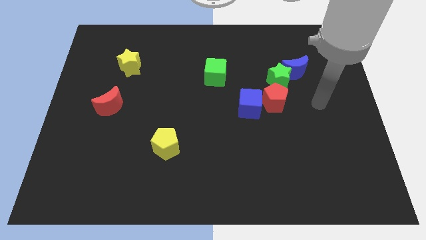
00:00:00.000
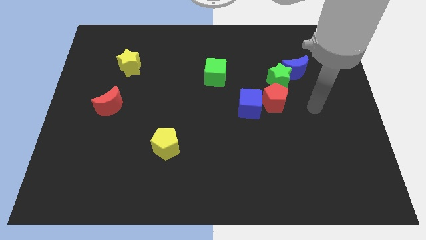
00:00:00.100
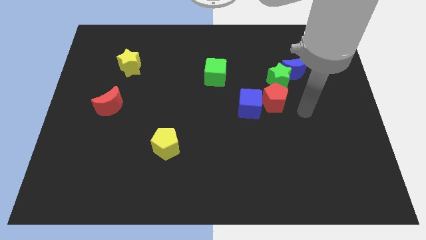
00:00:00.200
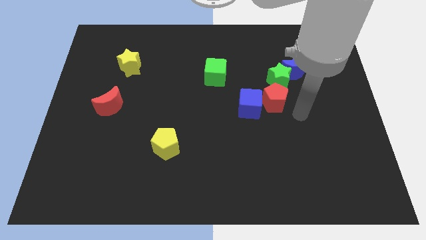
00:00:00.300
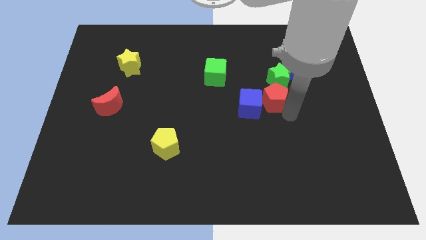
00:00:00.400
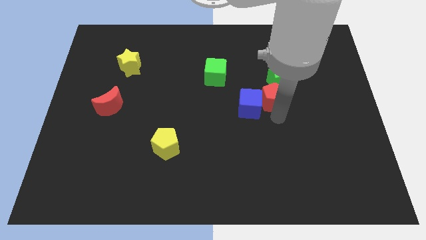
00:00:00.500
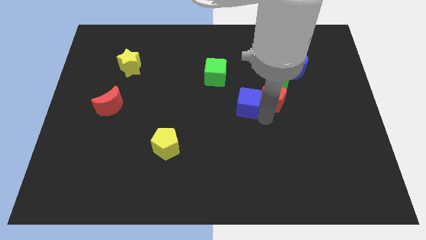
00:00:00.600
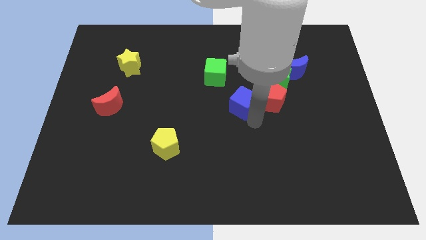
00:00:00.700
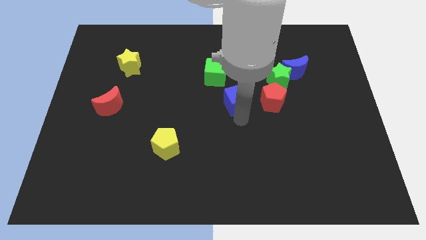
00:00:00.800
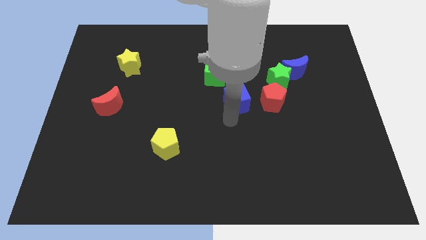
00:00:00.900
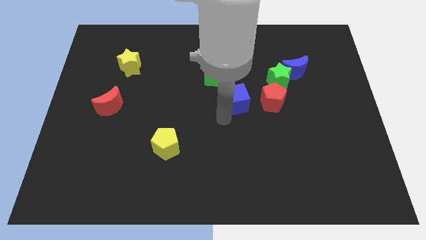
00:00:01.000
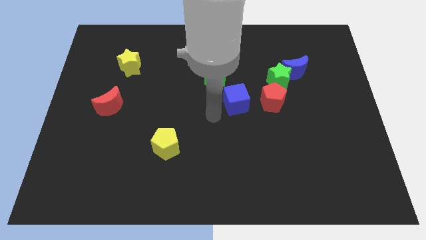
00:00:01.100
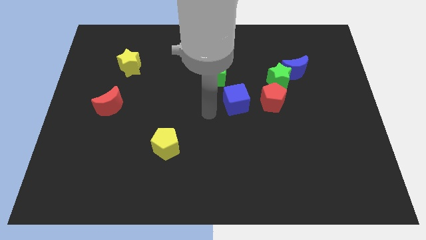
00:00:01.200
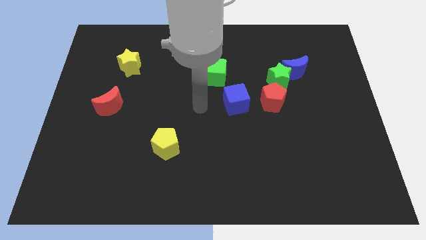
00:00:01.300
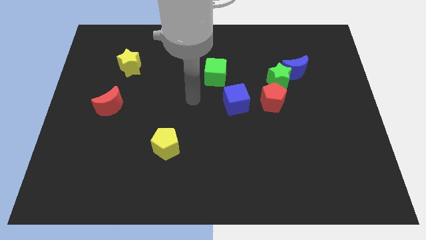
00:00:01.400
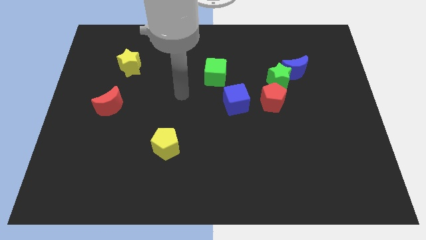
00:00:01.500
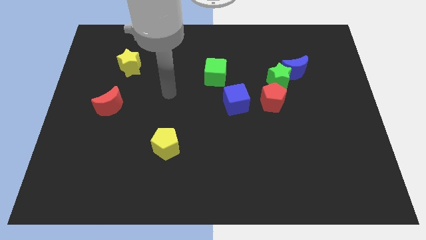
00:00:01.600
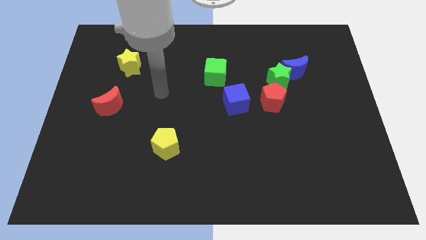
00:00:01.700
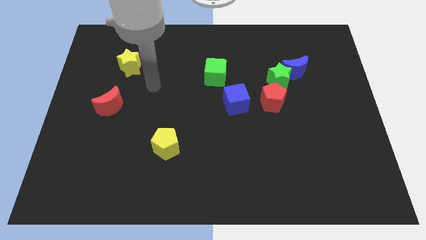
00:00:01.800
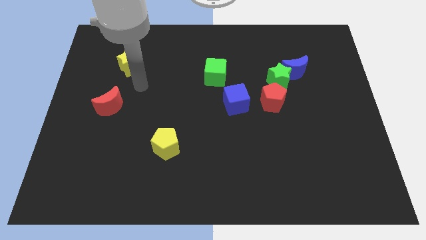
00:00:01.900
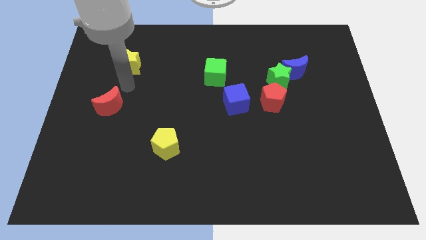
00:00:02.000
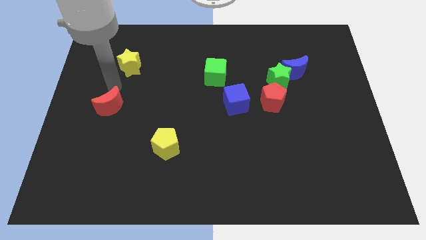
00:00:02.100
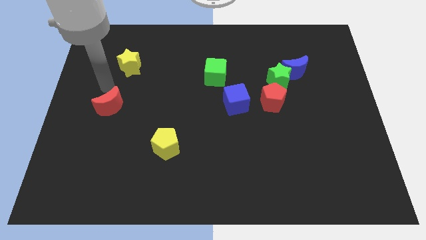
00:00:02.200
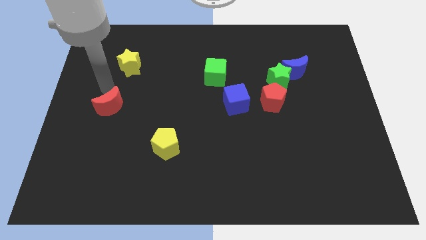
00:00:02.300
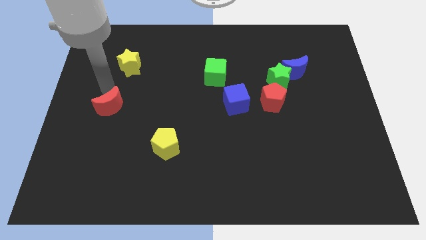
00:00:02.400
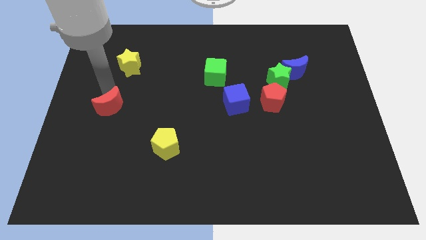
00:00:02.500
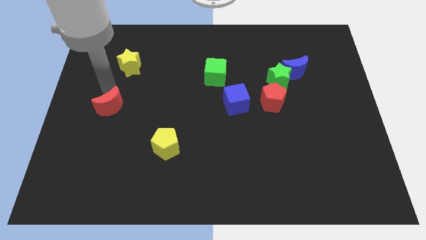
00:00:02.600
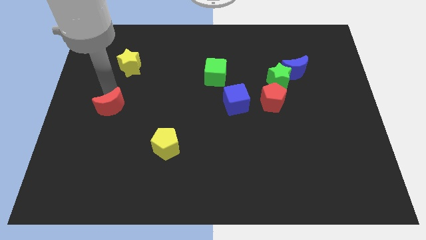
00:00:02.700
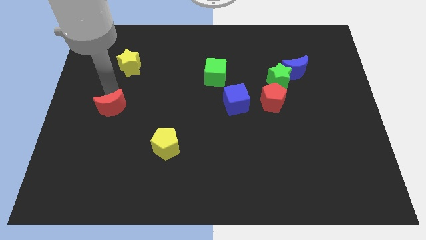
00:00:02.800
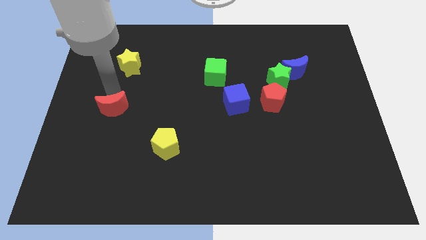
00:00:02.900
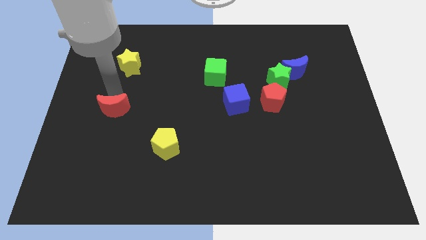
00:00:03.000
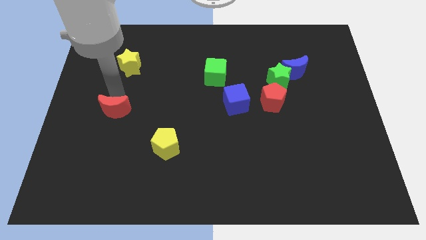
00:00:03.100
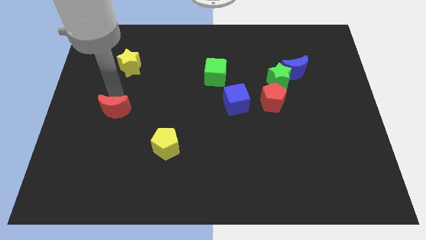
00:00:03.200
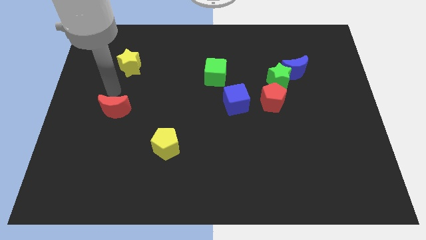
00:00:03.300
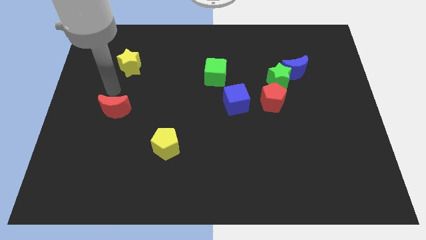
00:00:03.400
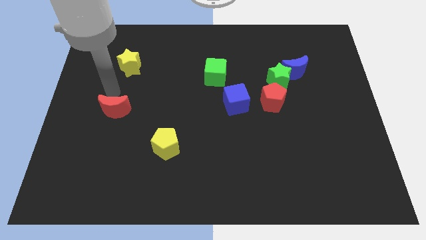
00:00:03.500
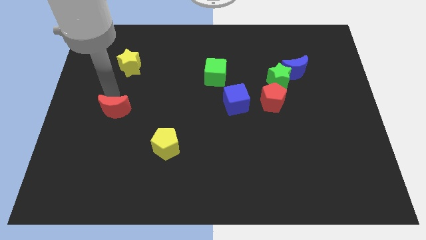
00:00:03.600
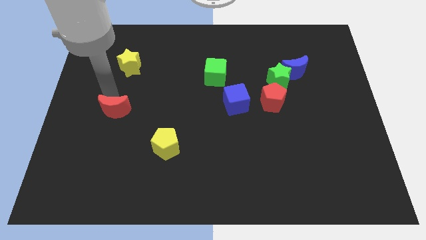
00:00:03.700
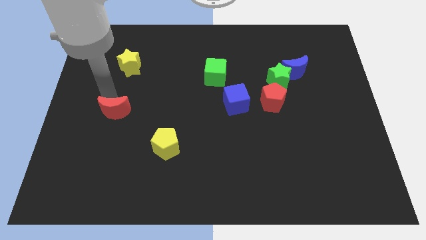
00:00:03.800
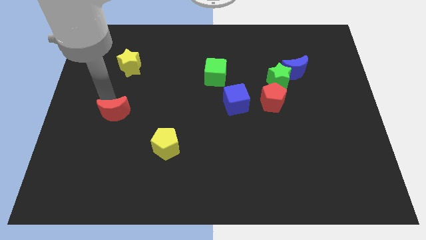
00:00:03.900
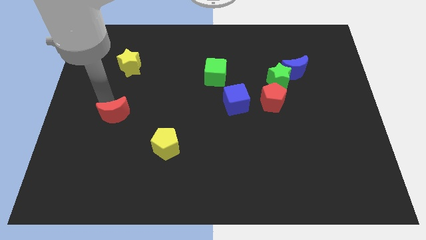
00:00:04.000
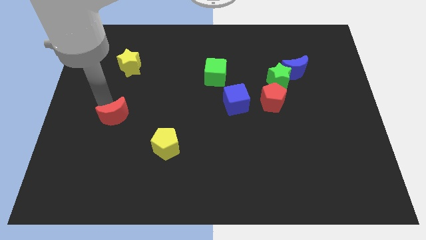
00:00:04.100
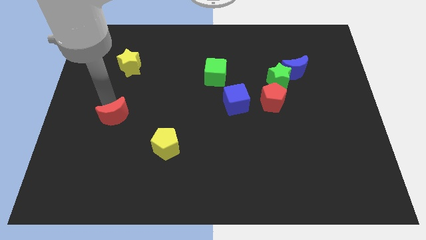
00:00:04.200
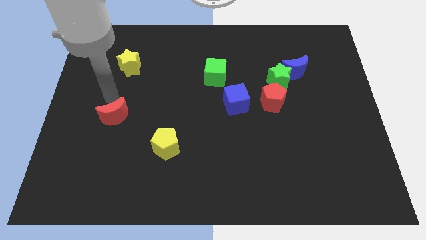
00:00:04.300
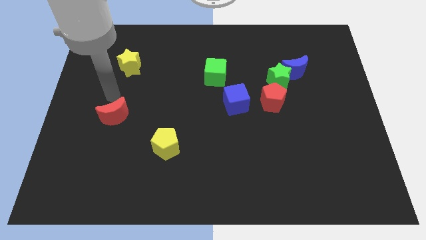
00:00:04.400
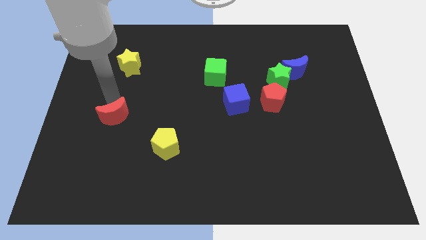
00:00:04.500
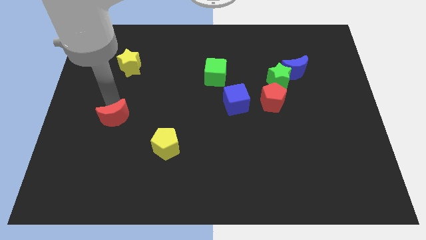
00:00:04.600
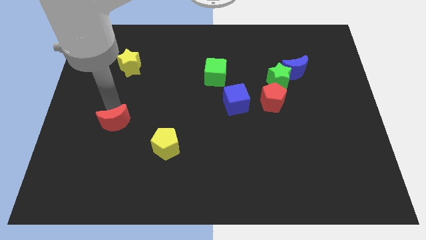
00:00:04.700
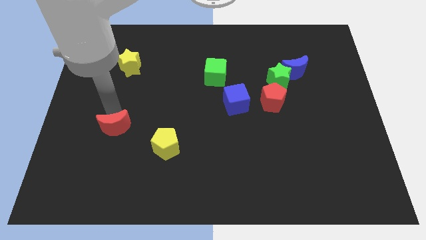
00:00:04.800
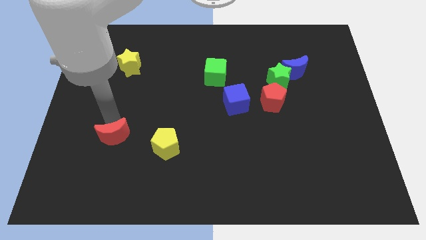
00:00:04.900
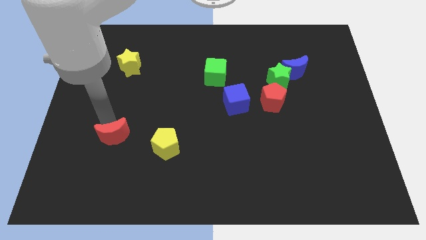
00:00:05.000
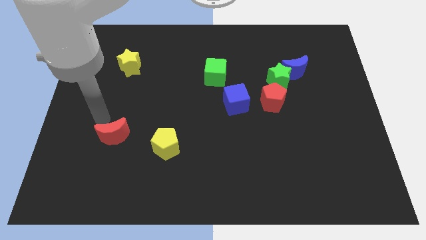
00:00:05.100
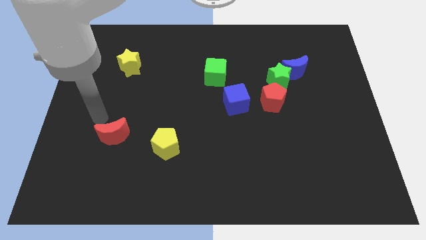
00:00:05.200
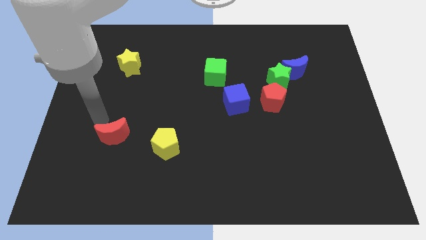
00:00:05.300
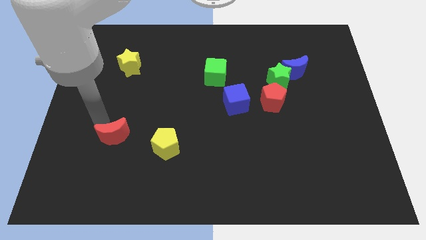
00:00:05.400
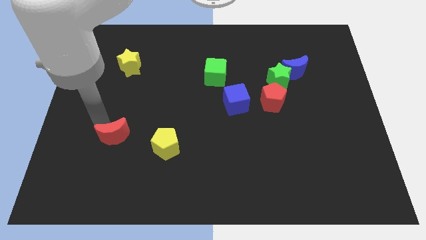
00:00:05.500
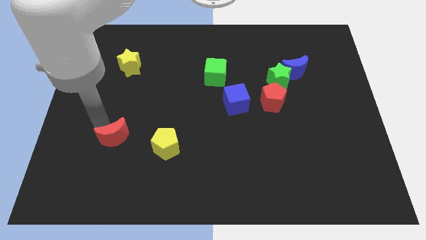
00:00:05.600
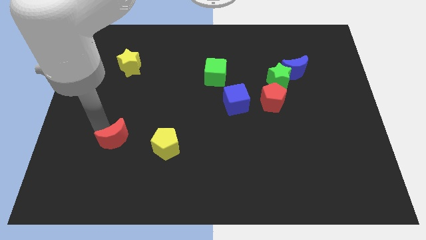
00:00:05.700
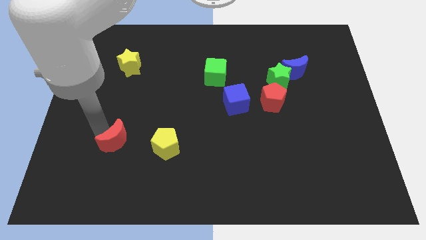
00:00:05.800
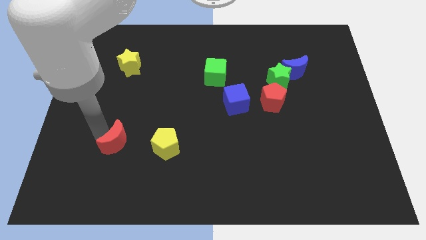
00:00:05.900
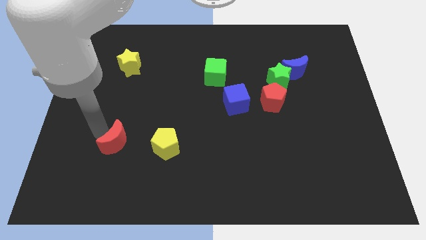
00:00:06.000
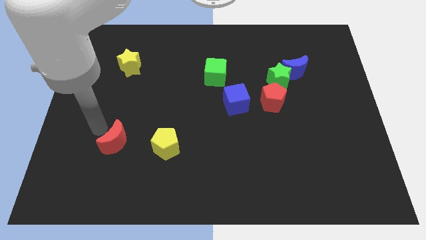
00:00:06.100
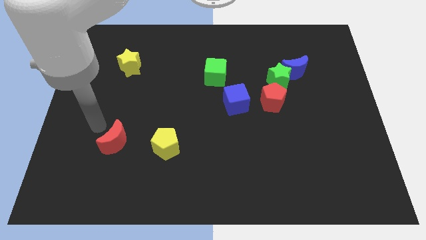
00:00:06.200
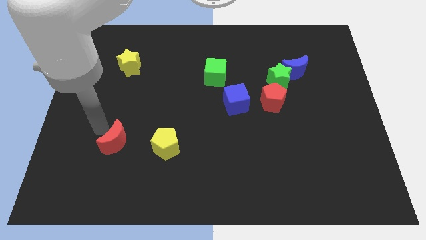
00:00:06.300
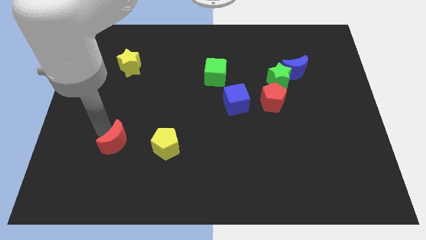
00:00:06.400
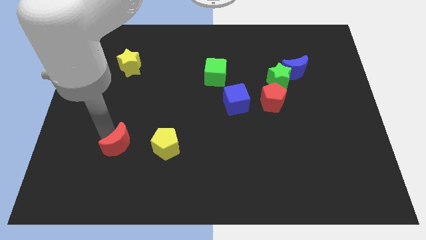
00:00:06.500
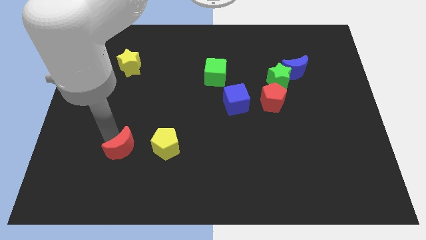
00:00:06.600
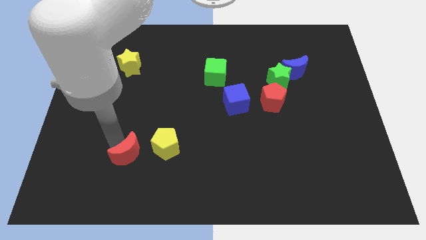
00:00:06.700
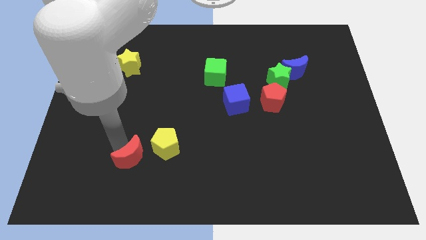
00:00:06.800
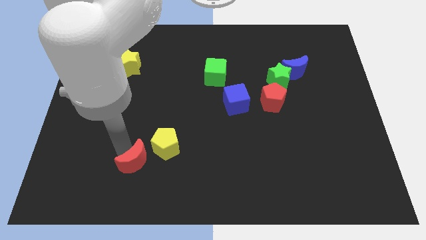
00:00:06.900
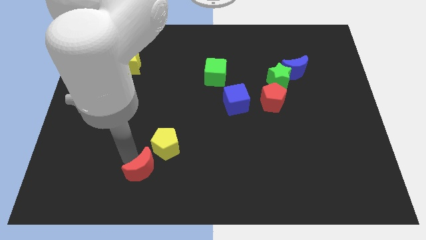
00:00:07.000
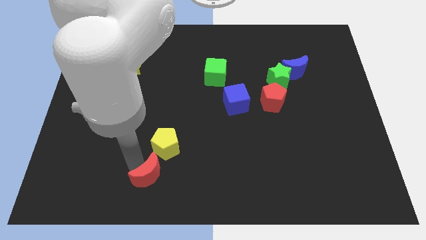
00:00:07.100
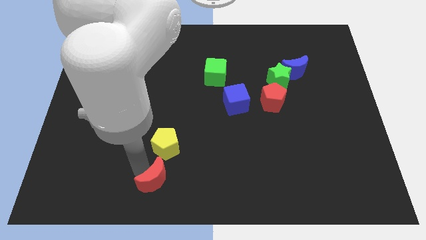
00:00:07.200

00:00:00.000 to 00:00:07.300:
move the red moon to the bottom
